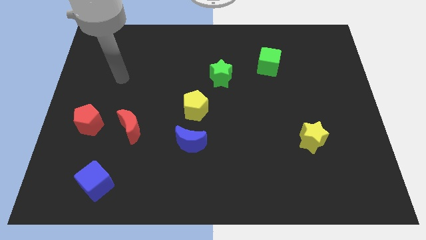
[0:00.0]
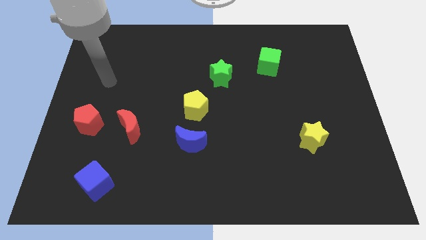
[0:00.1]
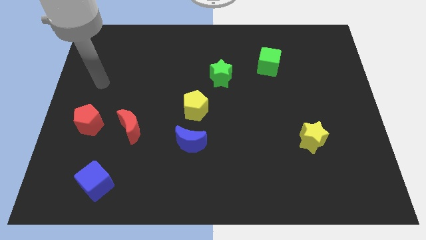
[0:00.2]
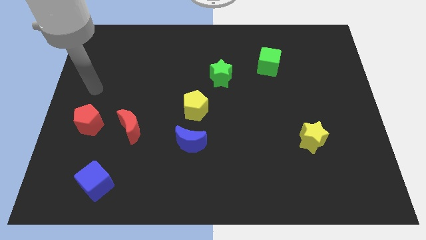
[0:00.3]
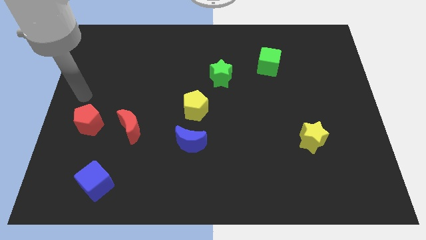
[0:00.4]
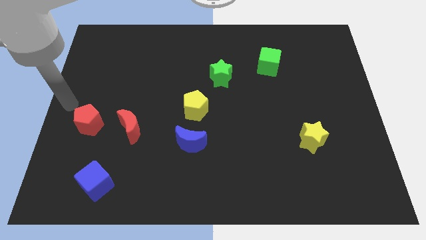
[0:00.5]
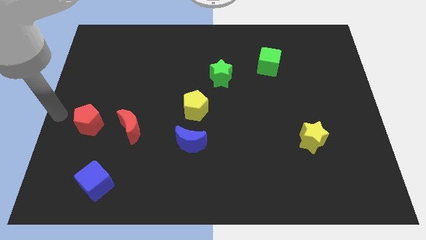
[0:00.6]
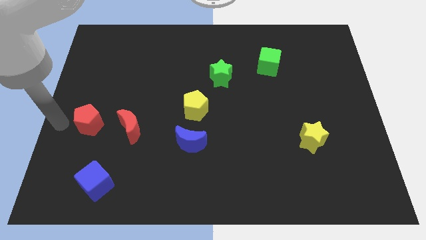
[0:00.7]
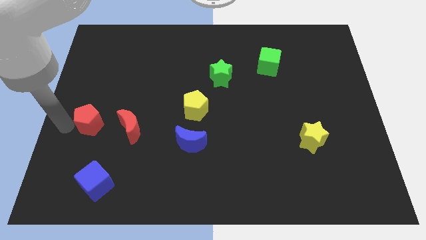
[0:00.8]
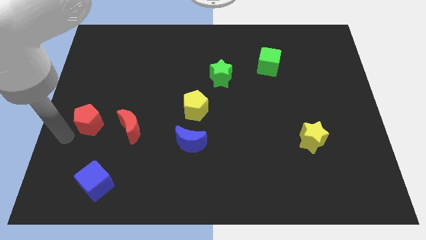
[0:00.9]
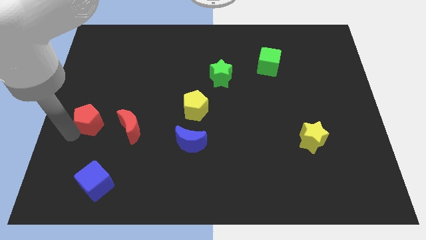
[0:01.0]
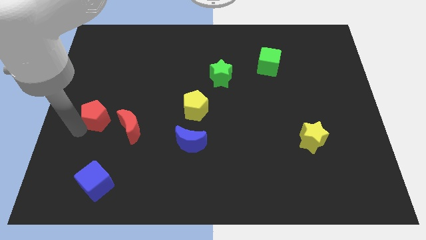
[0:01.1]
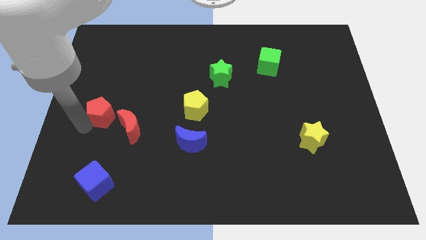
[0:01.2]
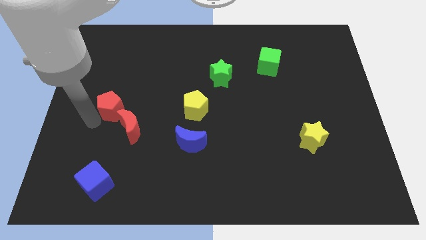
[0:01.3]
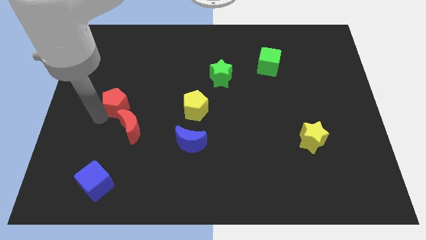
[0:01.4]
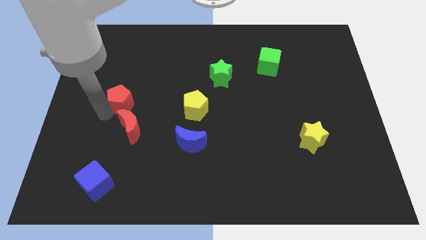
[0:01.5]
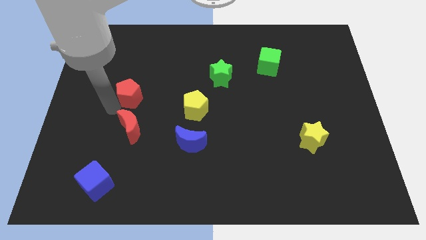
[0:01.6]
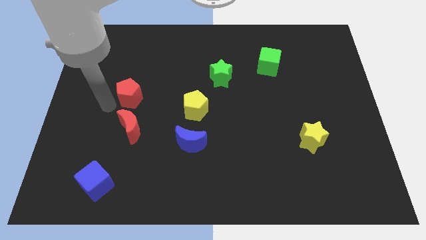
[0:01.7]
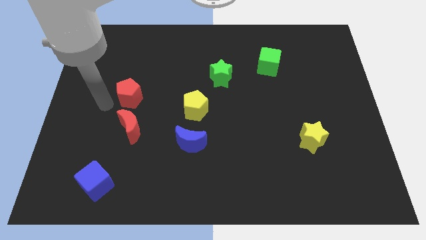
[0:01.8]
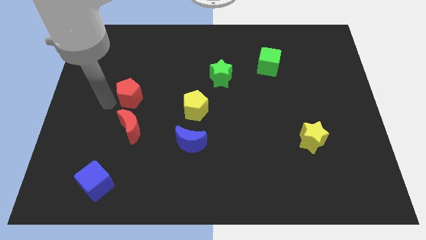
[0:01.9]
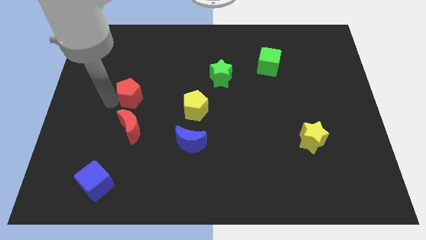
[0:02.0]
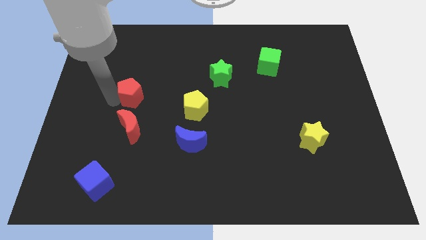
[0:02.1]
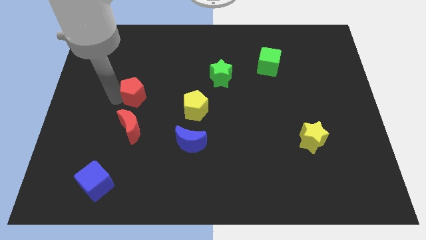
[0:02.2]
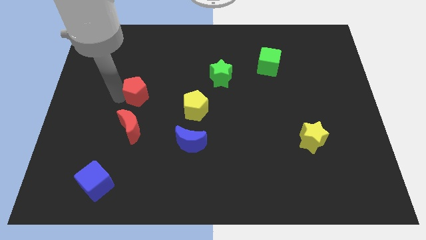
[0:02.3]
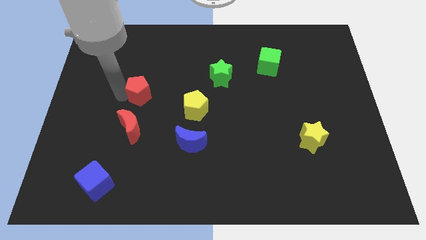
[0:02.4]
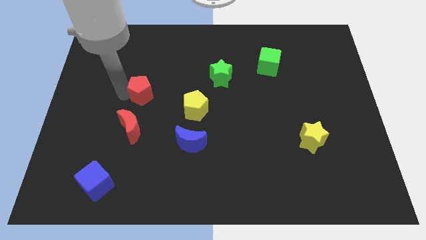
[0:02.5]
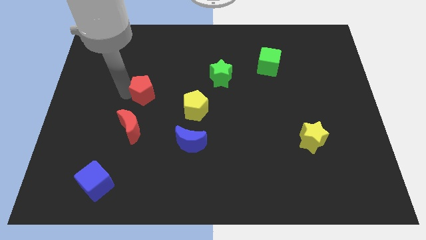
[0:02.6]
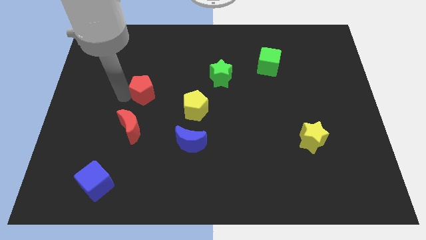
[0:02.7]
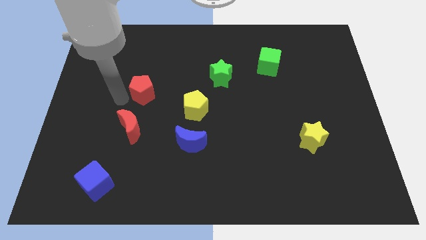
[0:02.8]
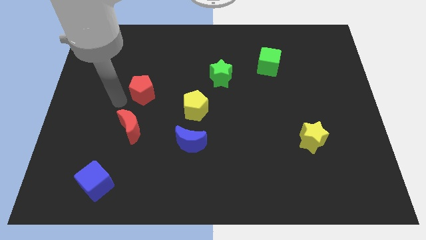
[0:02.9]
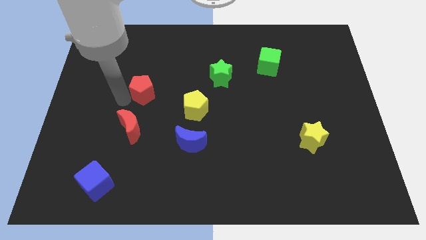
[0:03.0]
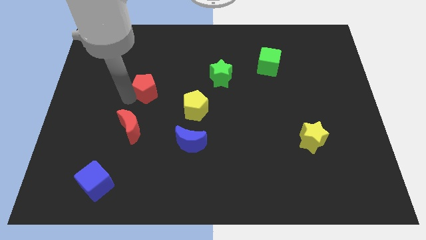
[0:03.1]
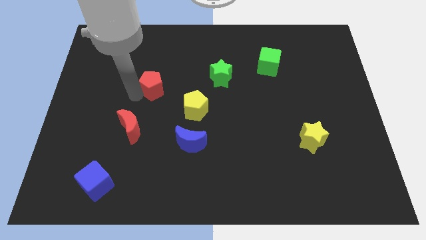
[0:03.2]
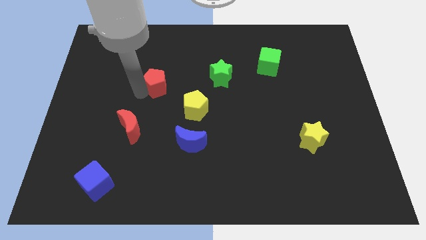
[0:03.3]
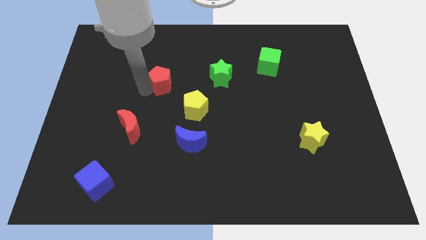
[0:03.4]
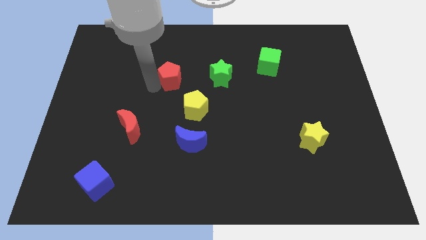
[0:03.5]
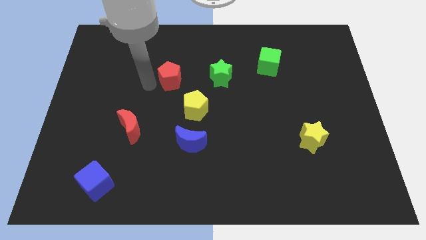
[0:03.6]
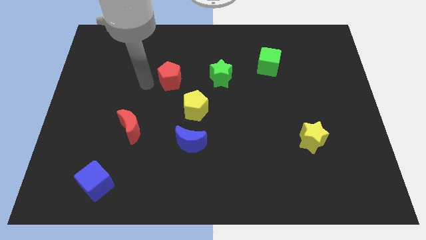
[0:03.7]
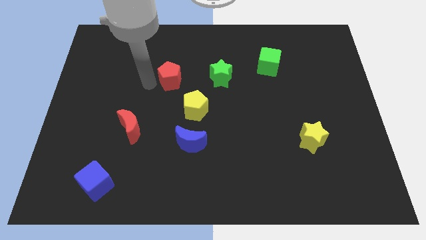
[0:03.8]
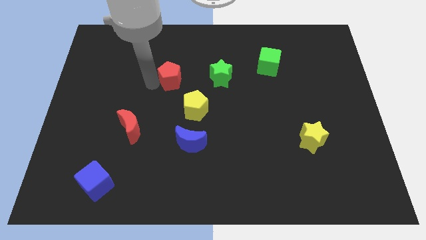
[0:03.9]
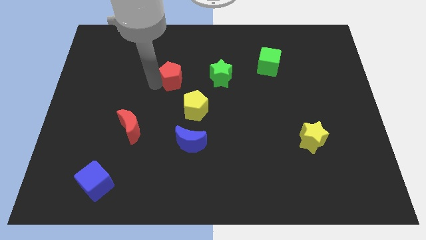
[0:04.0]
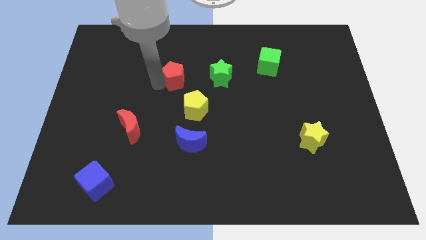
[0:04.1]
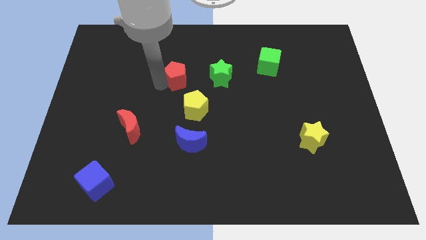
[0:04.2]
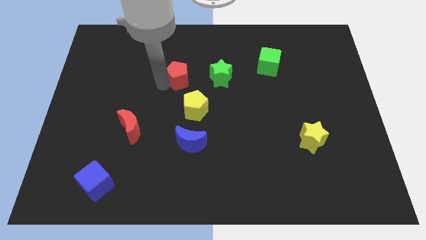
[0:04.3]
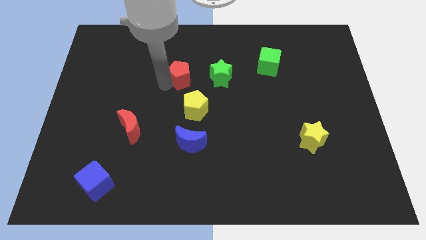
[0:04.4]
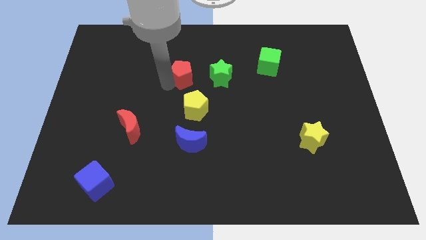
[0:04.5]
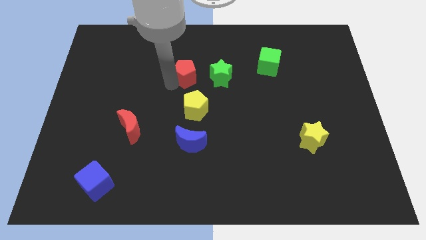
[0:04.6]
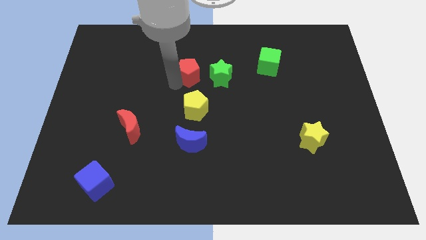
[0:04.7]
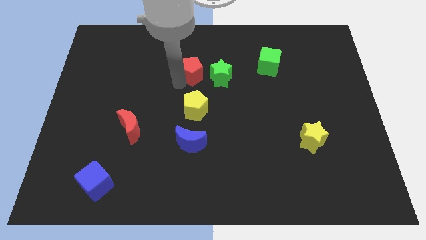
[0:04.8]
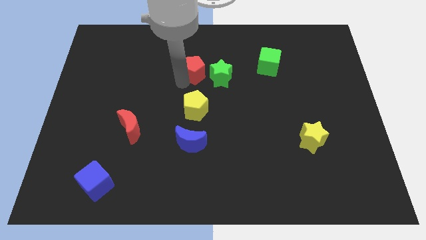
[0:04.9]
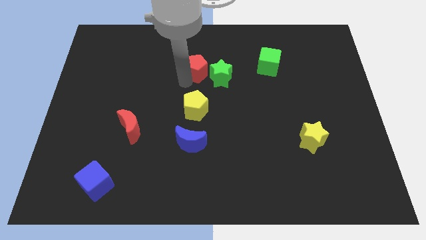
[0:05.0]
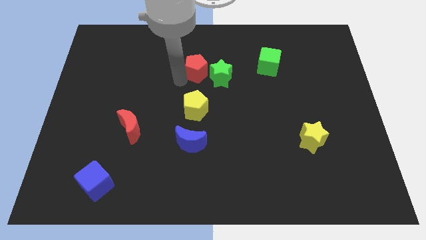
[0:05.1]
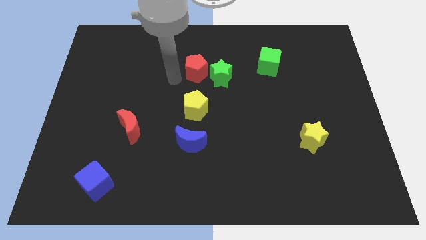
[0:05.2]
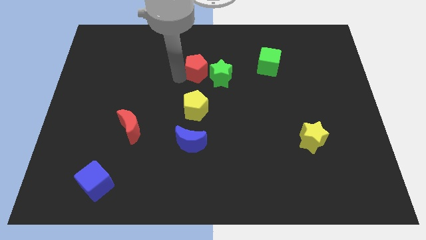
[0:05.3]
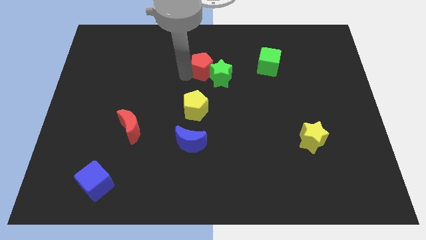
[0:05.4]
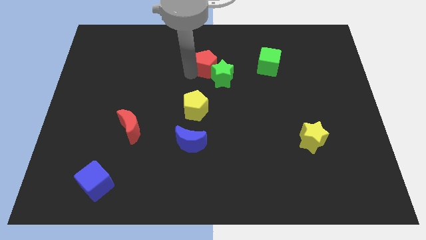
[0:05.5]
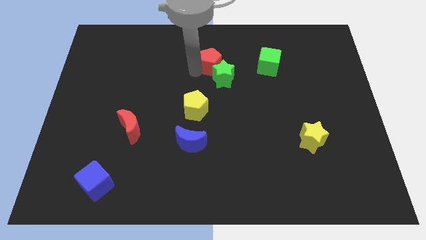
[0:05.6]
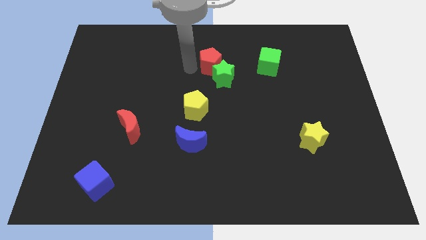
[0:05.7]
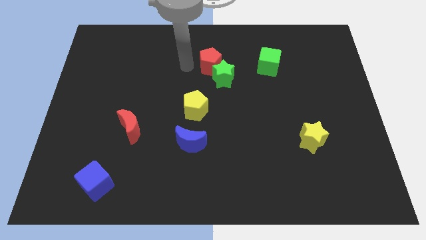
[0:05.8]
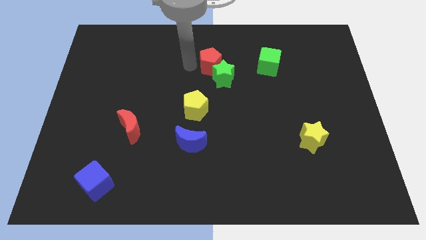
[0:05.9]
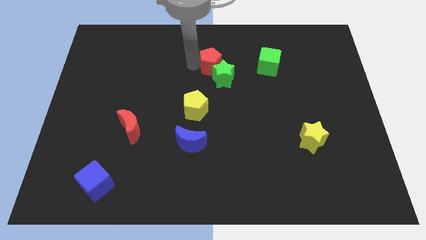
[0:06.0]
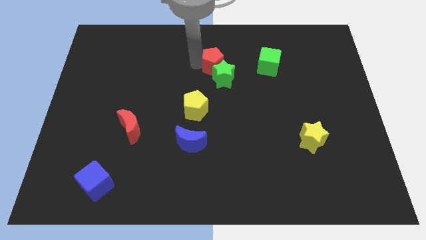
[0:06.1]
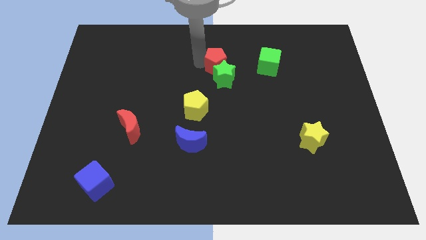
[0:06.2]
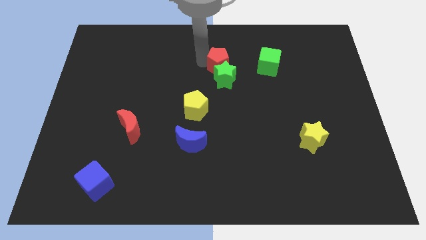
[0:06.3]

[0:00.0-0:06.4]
push the red pentagon to the top right of the green star

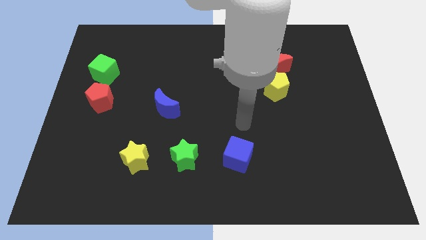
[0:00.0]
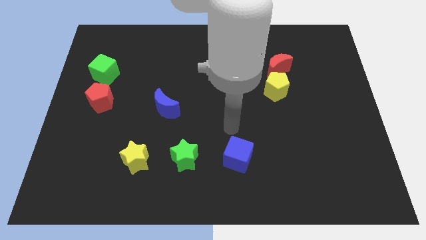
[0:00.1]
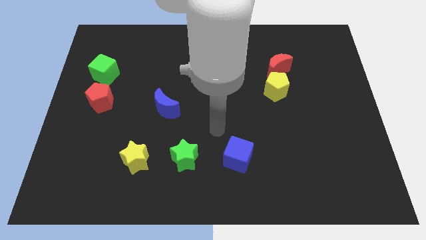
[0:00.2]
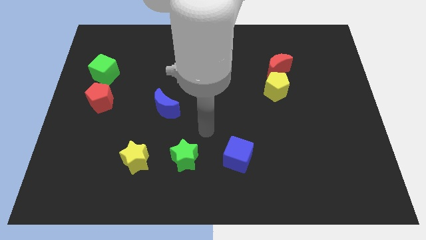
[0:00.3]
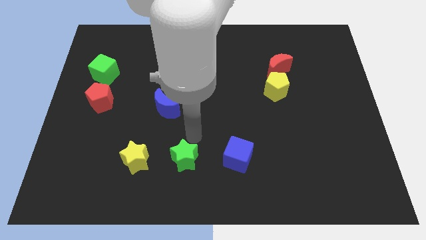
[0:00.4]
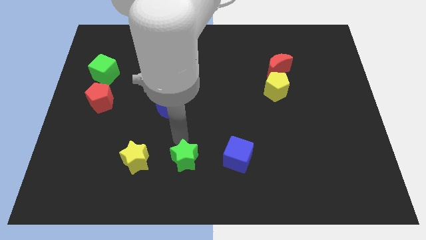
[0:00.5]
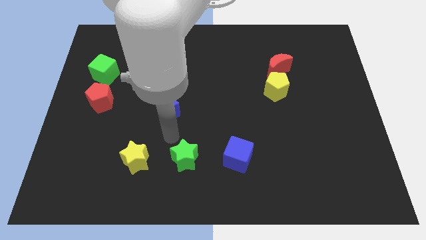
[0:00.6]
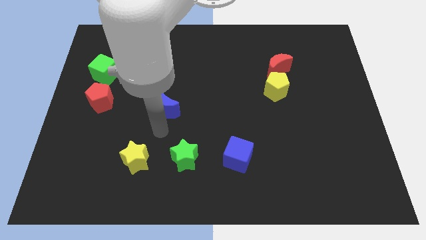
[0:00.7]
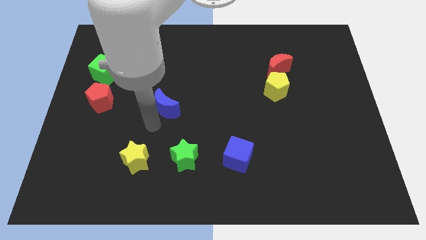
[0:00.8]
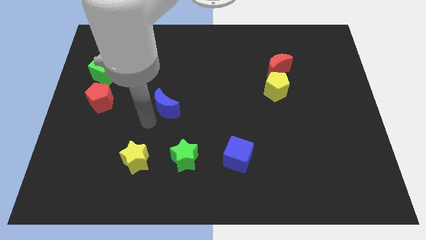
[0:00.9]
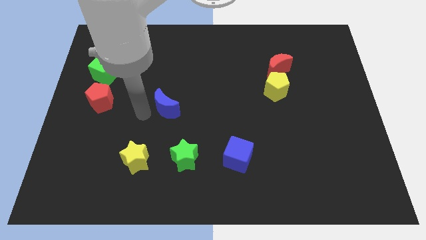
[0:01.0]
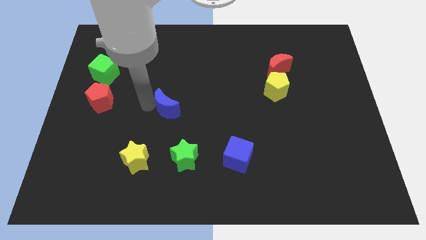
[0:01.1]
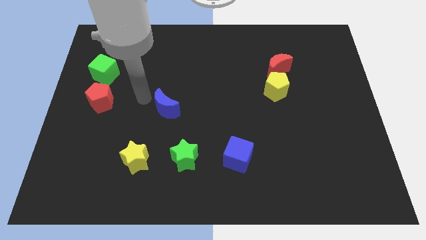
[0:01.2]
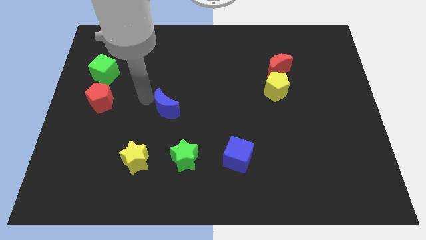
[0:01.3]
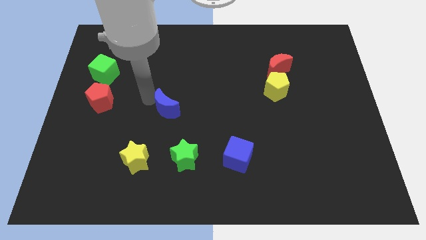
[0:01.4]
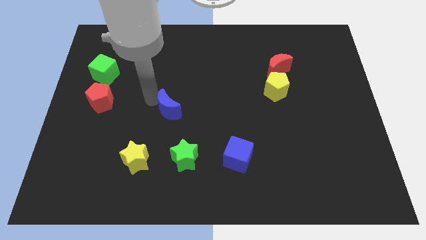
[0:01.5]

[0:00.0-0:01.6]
move the blue moon above the green star
